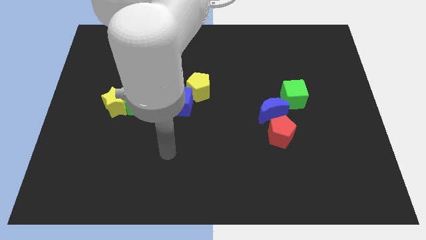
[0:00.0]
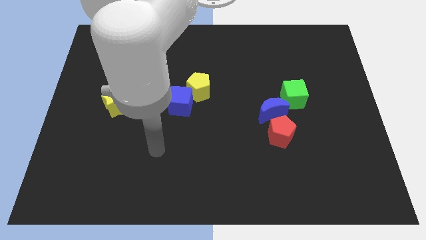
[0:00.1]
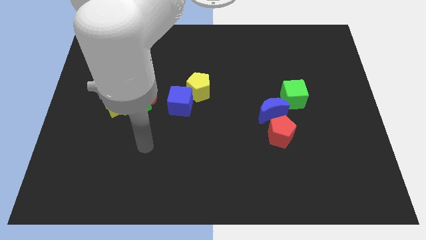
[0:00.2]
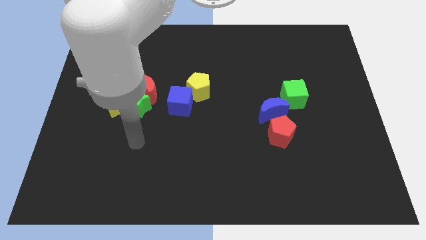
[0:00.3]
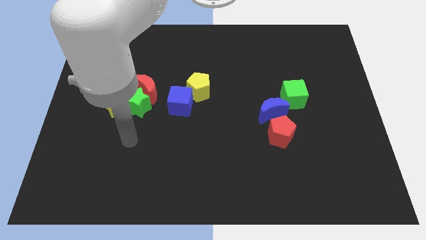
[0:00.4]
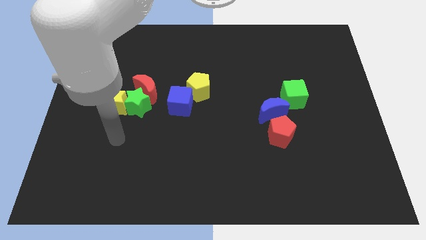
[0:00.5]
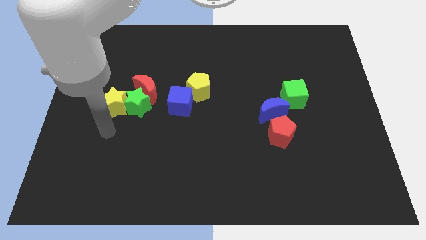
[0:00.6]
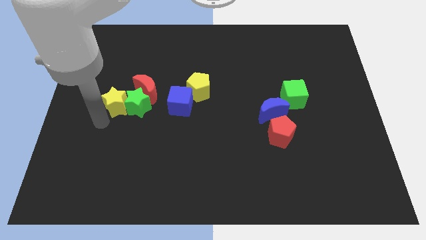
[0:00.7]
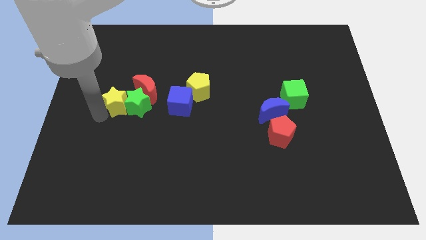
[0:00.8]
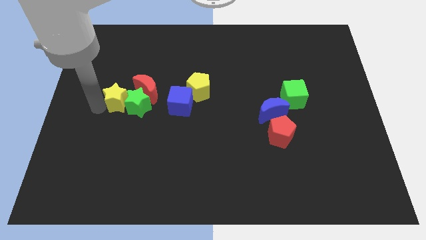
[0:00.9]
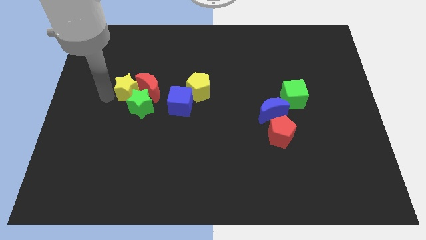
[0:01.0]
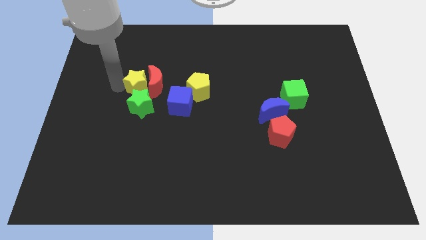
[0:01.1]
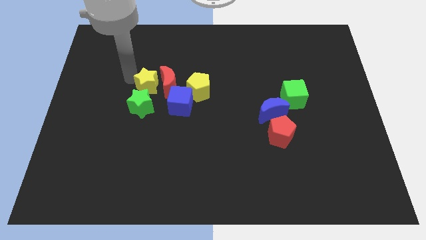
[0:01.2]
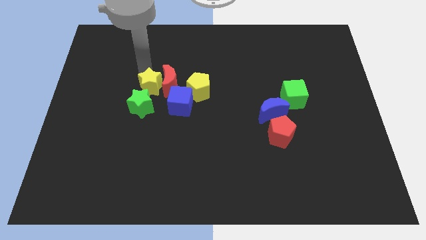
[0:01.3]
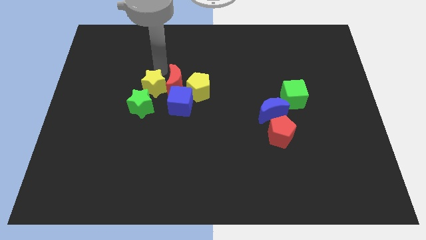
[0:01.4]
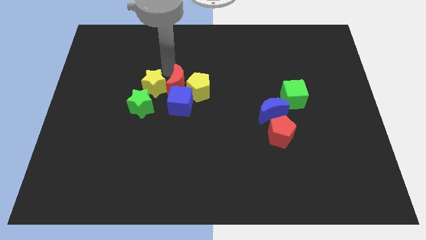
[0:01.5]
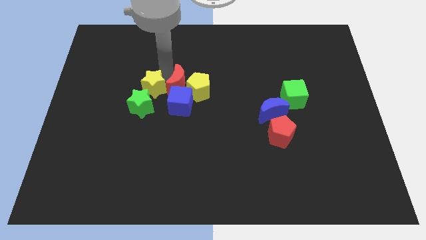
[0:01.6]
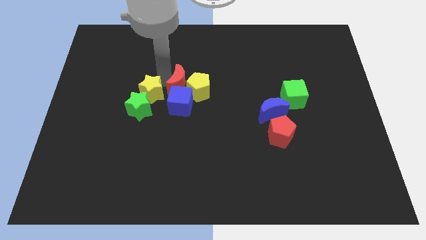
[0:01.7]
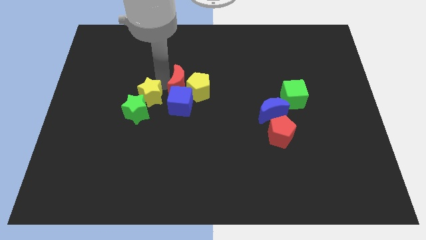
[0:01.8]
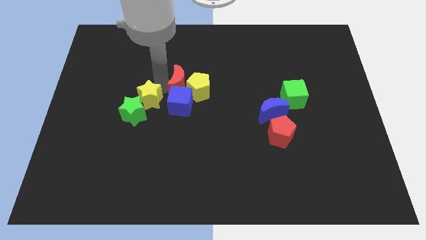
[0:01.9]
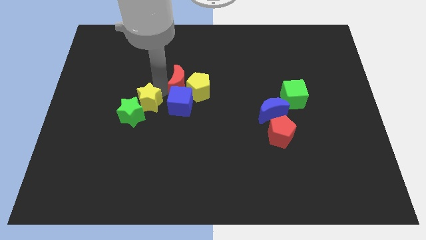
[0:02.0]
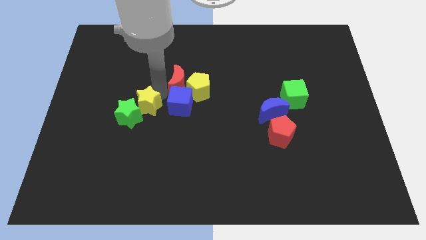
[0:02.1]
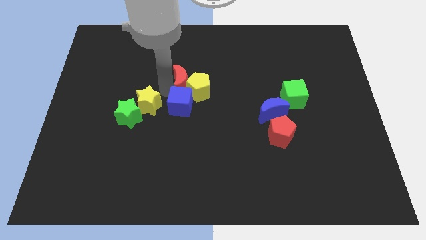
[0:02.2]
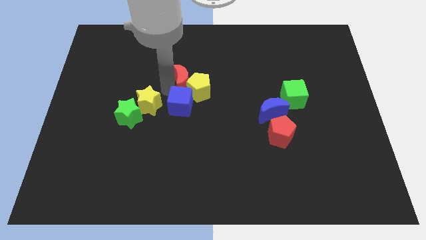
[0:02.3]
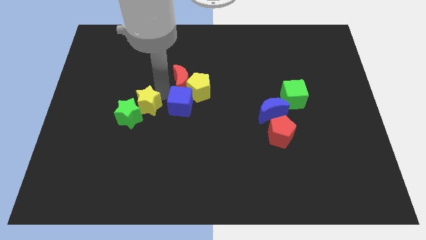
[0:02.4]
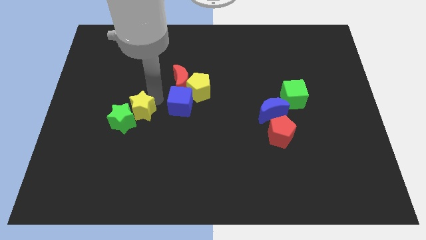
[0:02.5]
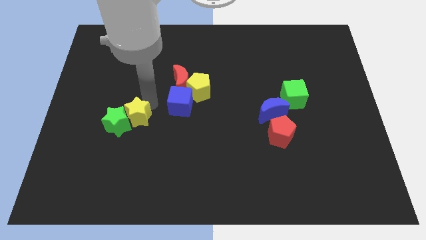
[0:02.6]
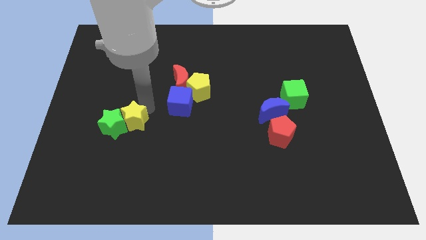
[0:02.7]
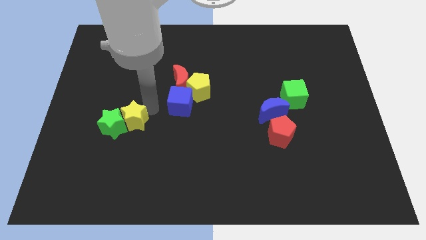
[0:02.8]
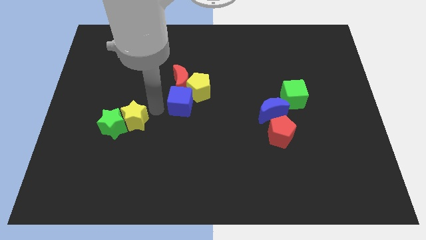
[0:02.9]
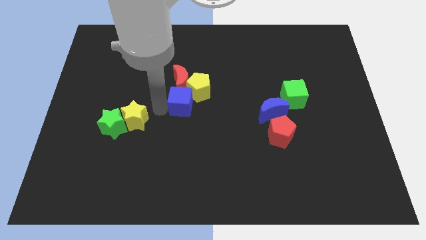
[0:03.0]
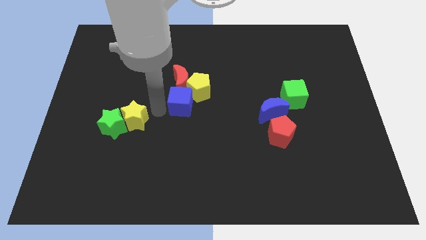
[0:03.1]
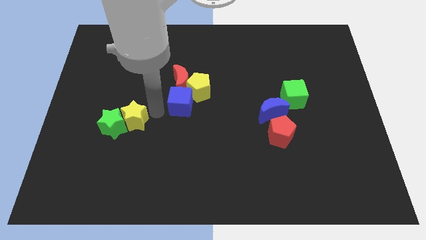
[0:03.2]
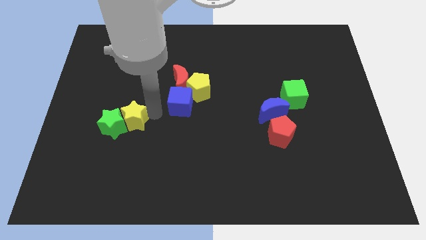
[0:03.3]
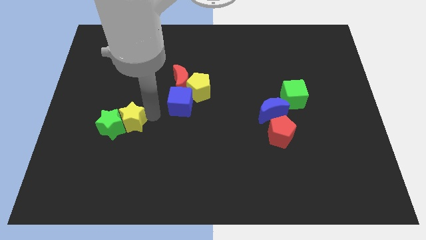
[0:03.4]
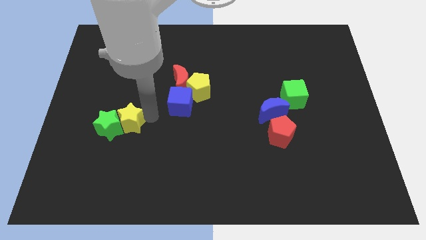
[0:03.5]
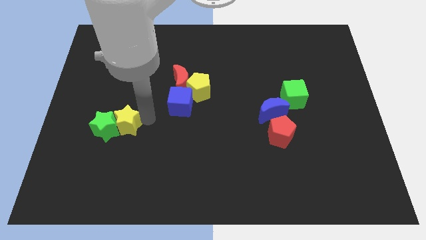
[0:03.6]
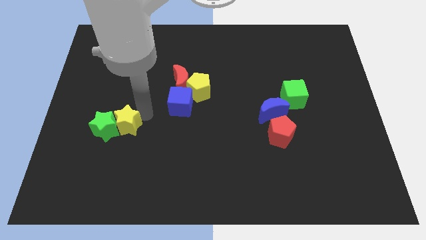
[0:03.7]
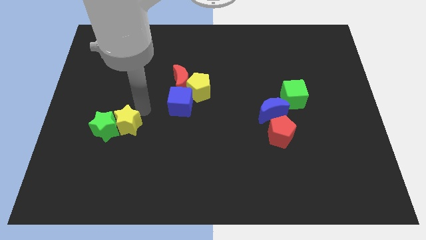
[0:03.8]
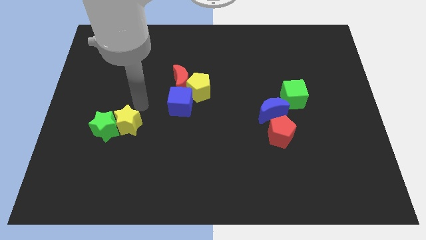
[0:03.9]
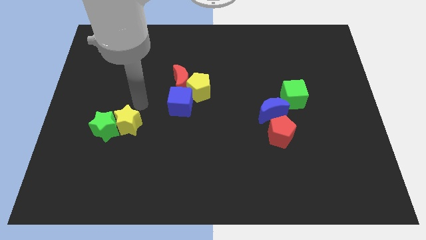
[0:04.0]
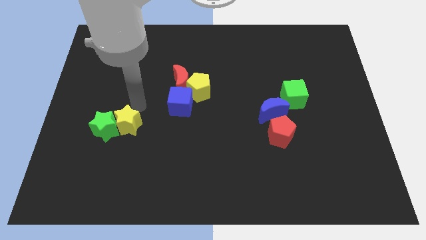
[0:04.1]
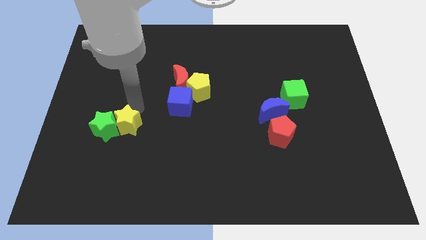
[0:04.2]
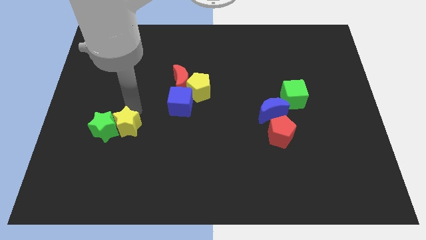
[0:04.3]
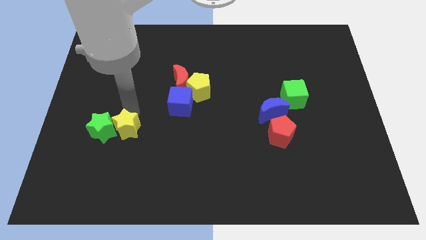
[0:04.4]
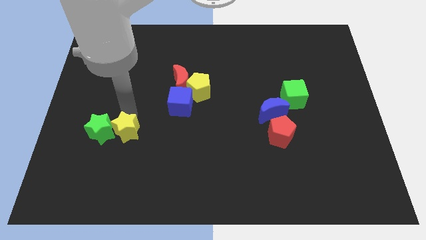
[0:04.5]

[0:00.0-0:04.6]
slightly slide the yellow star downwards

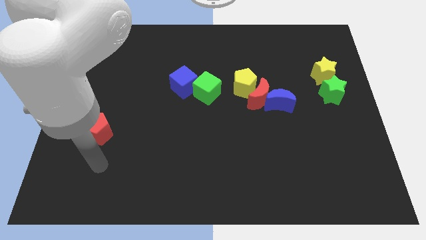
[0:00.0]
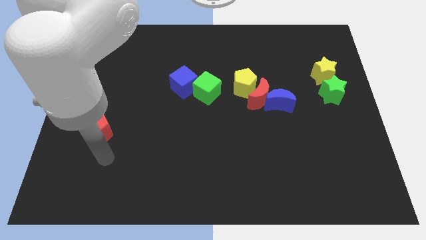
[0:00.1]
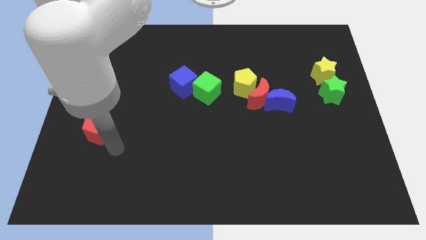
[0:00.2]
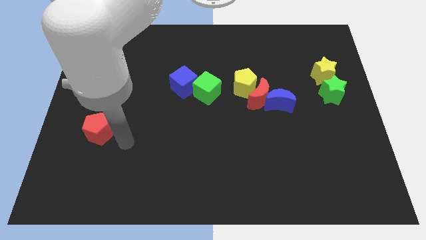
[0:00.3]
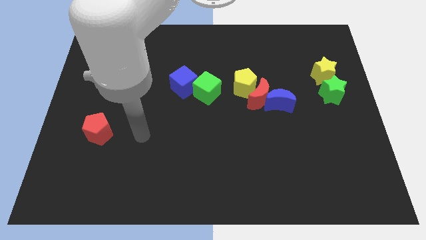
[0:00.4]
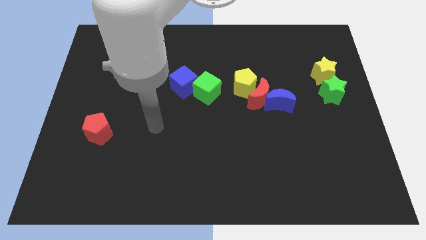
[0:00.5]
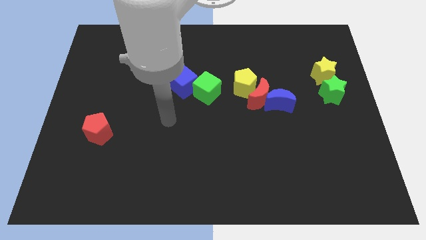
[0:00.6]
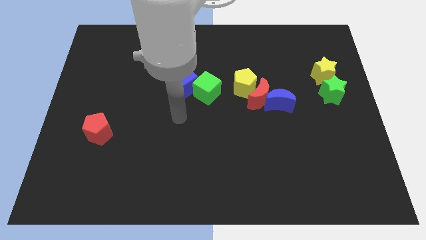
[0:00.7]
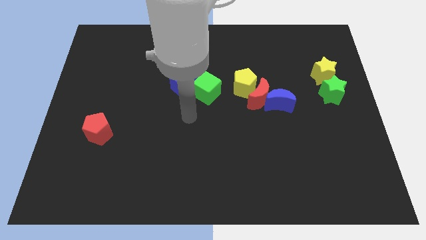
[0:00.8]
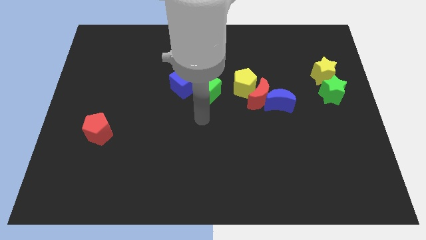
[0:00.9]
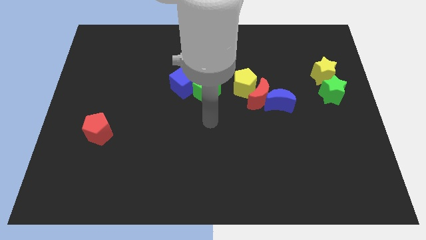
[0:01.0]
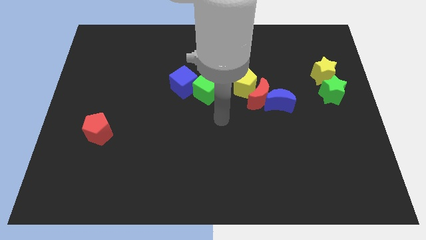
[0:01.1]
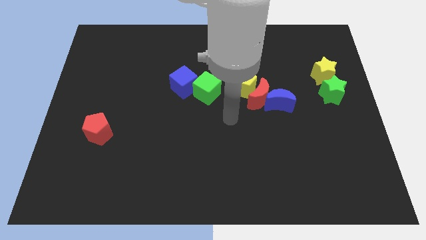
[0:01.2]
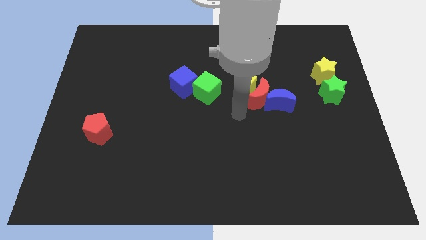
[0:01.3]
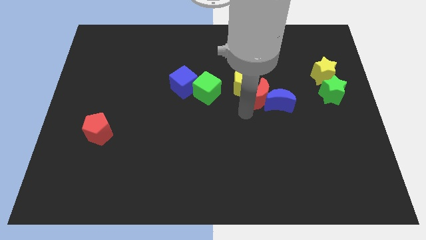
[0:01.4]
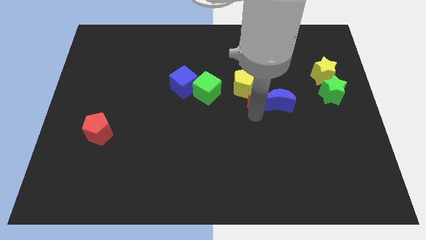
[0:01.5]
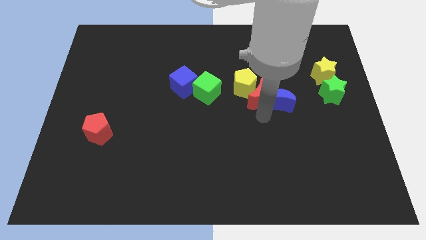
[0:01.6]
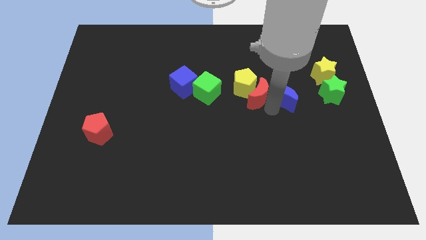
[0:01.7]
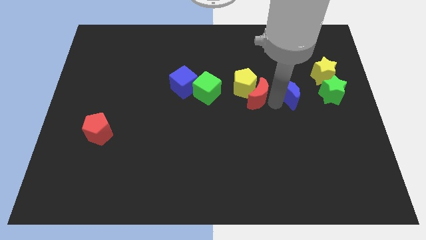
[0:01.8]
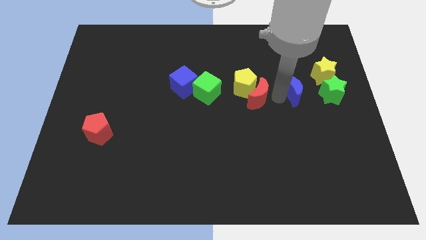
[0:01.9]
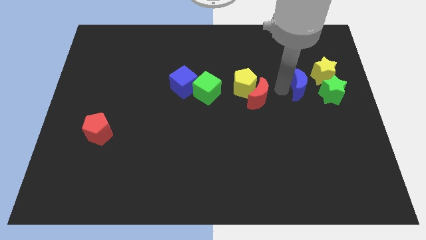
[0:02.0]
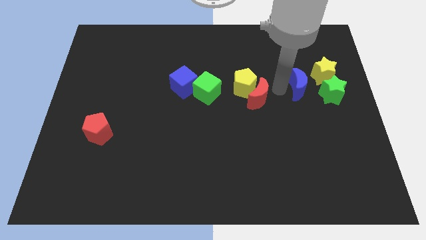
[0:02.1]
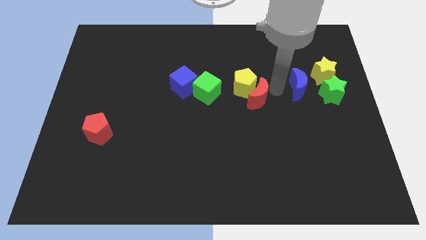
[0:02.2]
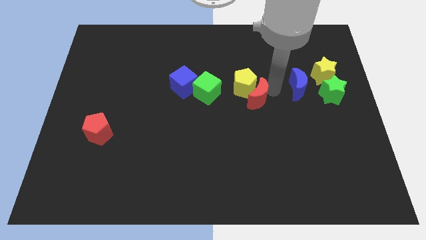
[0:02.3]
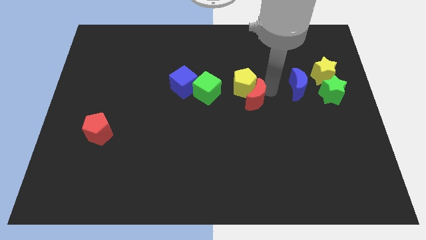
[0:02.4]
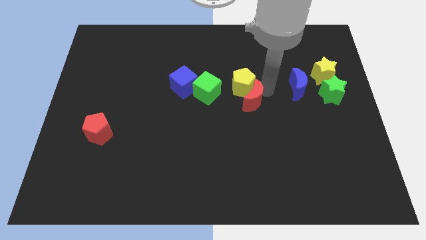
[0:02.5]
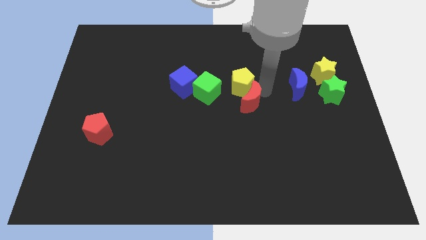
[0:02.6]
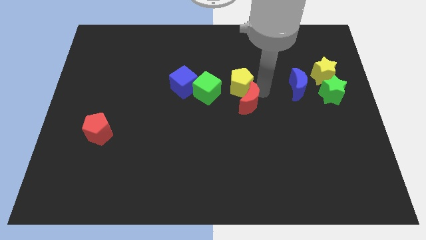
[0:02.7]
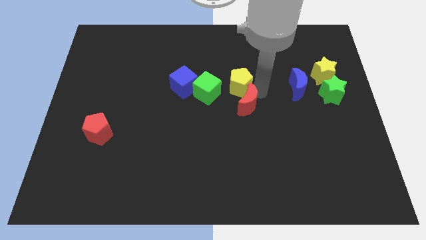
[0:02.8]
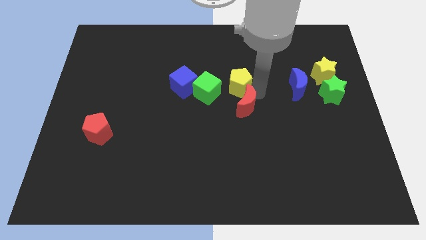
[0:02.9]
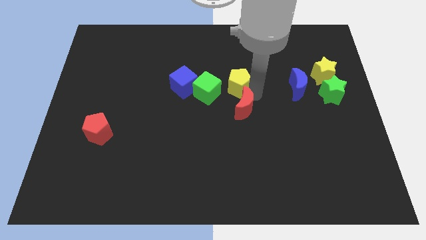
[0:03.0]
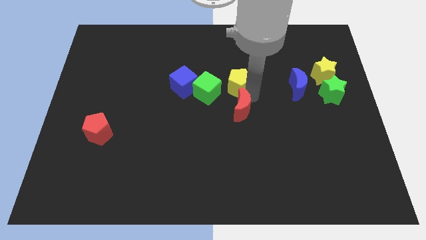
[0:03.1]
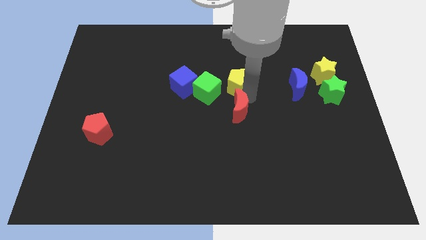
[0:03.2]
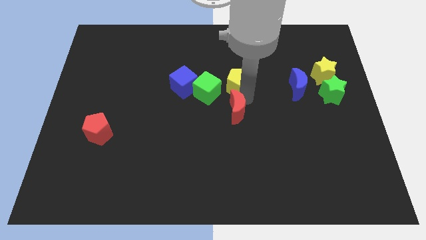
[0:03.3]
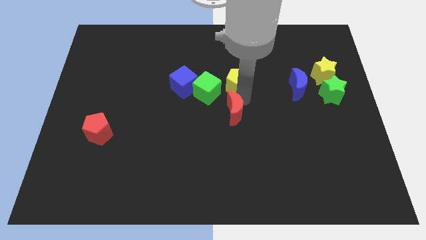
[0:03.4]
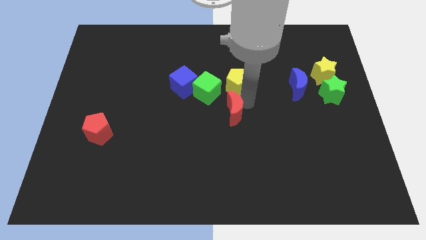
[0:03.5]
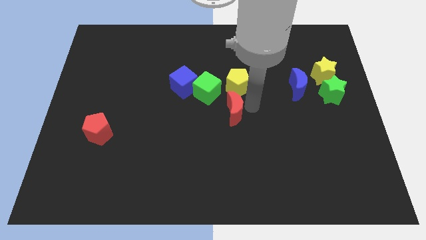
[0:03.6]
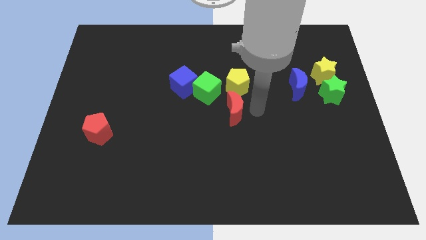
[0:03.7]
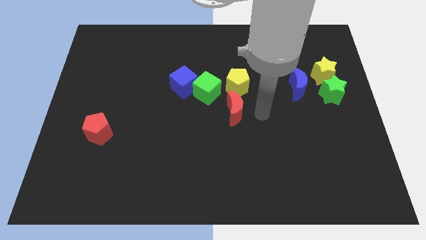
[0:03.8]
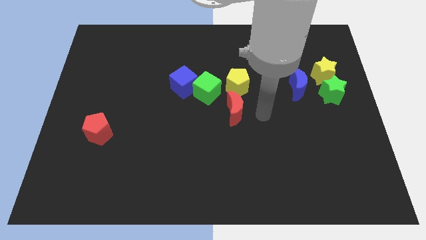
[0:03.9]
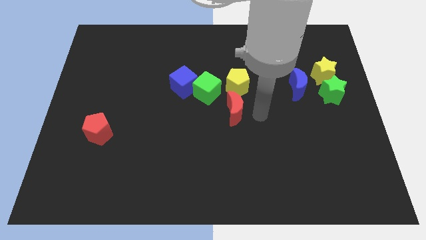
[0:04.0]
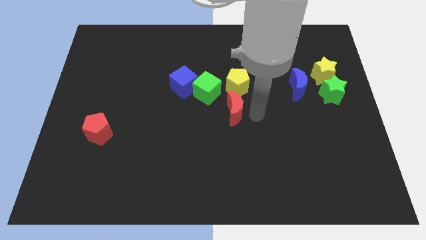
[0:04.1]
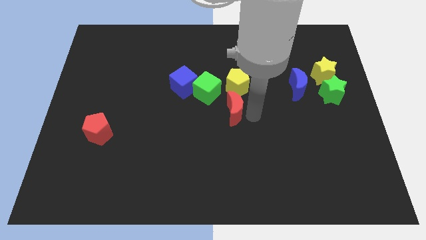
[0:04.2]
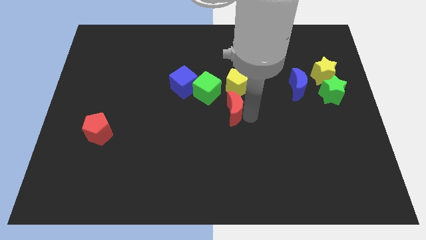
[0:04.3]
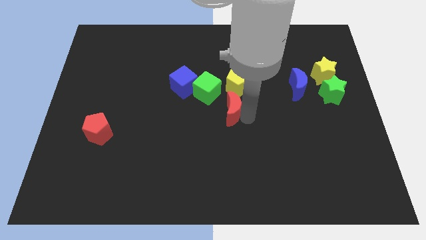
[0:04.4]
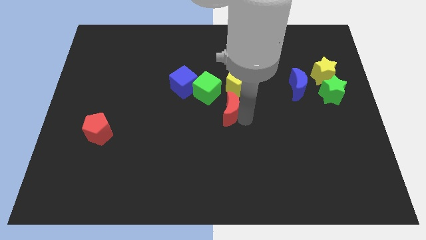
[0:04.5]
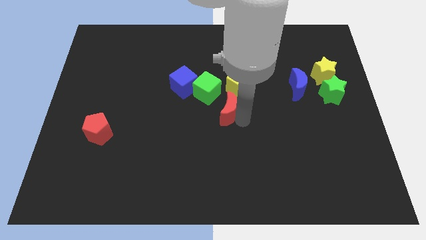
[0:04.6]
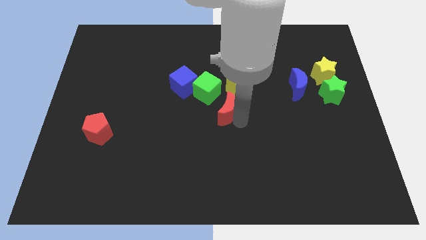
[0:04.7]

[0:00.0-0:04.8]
slide the red moon left slightly
